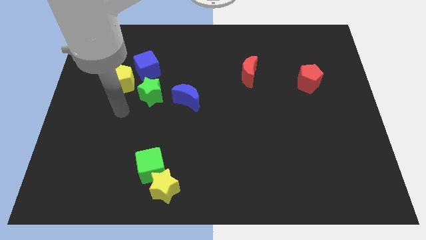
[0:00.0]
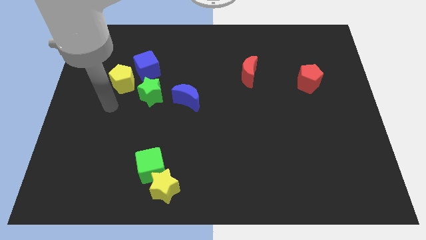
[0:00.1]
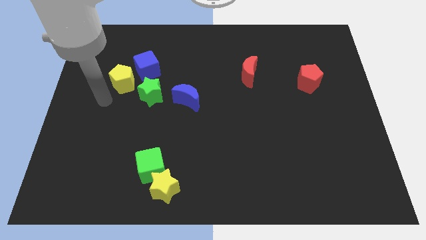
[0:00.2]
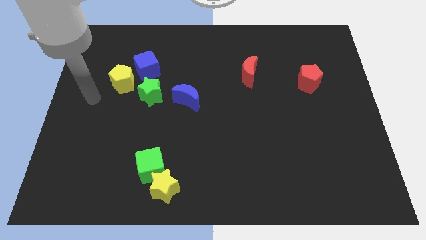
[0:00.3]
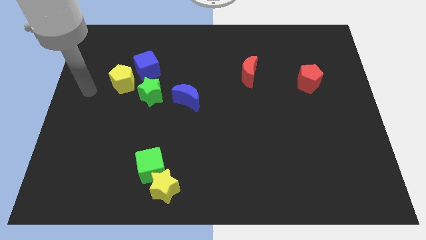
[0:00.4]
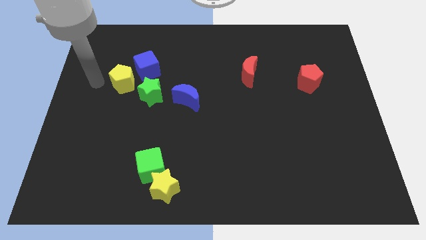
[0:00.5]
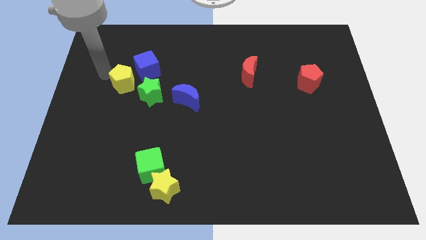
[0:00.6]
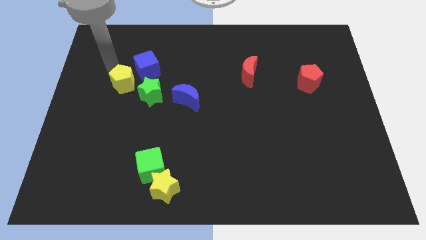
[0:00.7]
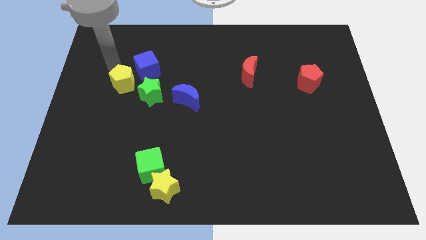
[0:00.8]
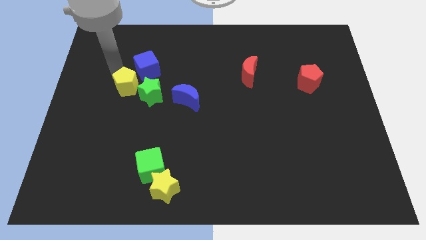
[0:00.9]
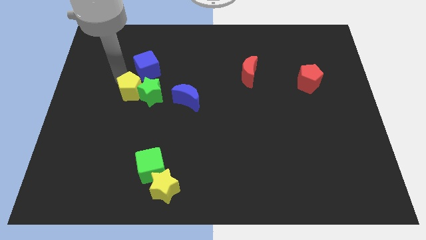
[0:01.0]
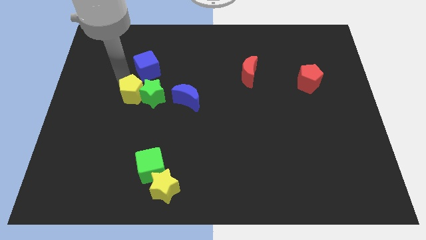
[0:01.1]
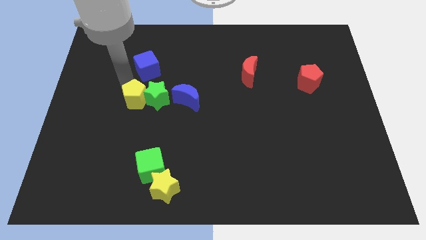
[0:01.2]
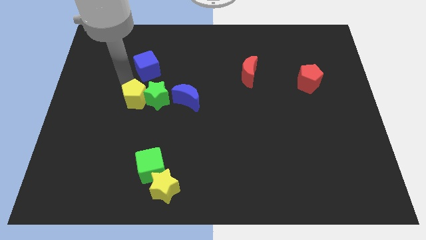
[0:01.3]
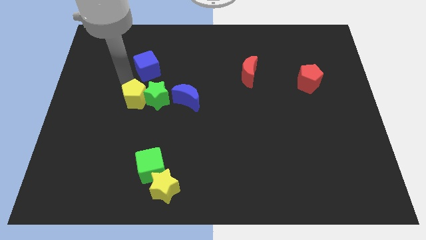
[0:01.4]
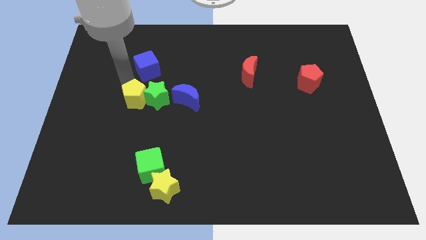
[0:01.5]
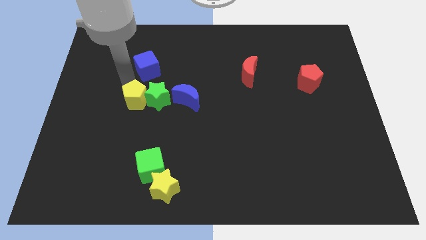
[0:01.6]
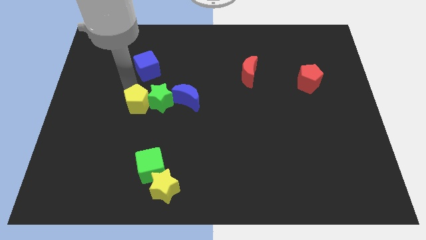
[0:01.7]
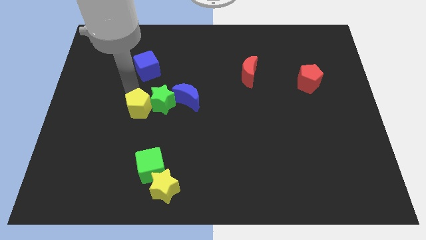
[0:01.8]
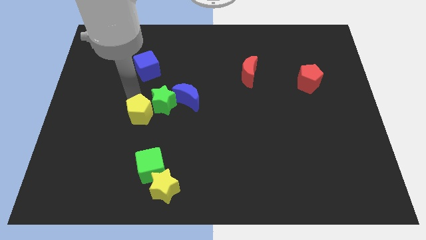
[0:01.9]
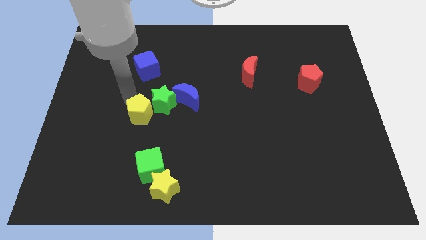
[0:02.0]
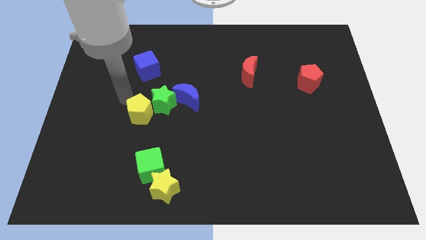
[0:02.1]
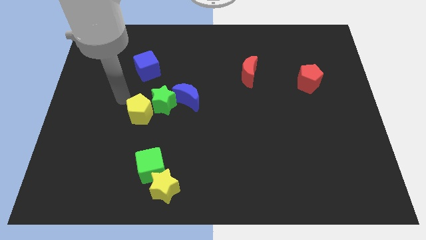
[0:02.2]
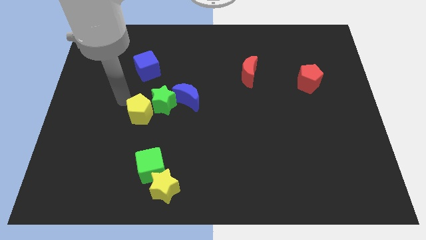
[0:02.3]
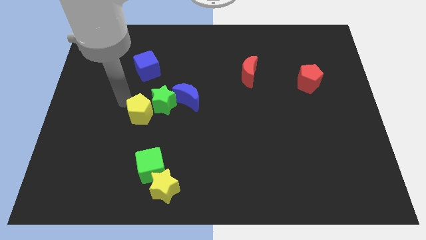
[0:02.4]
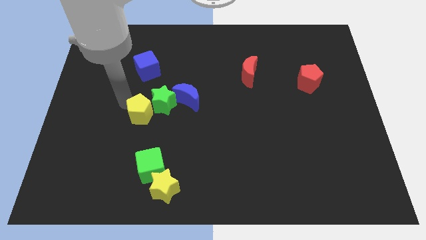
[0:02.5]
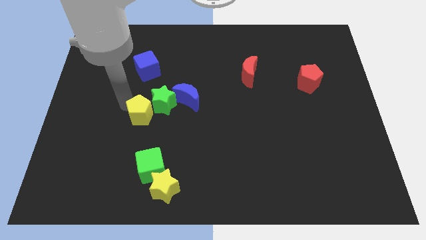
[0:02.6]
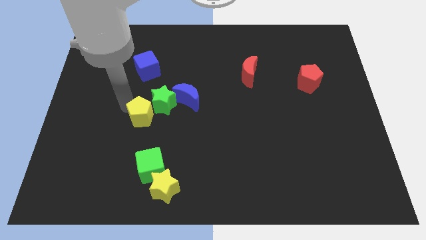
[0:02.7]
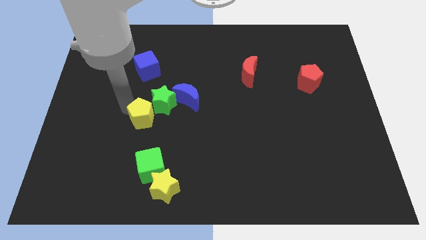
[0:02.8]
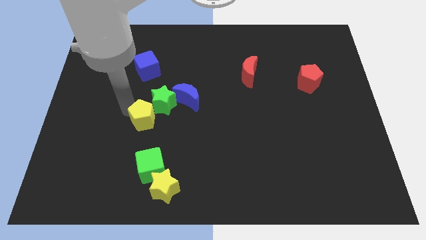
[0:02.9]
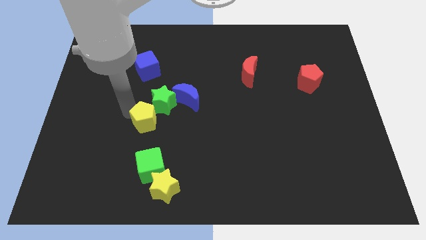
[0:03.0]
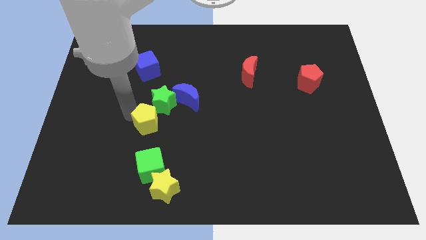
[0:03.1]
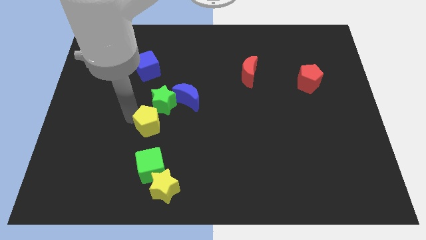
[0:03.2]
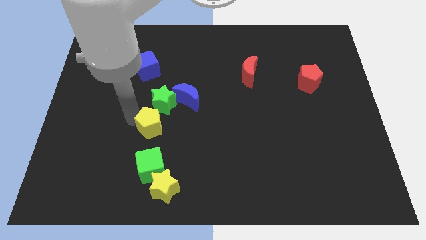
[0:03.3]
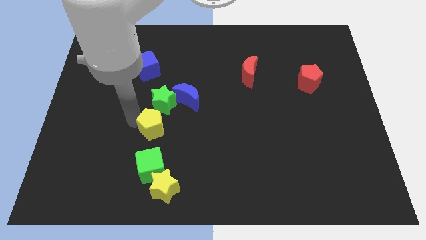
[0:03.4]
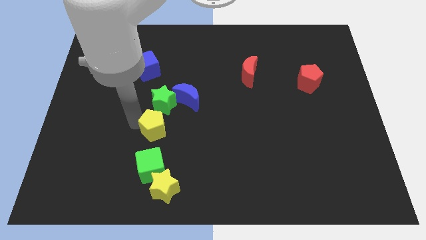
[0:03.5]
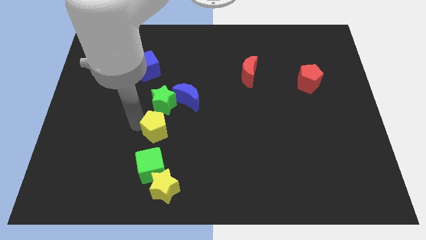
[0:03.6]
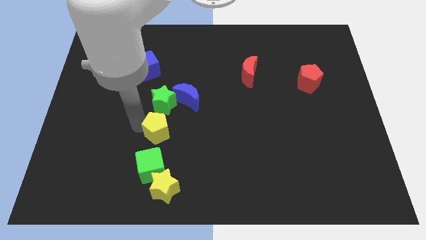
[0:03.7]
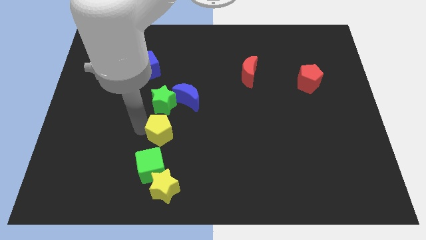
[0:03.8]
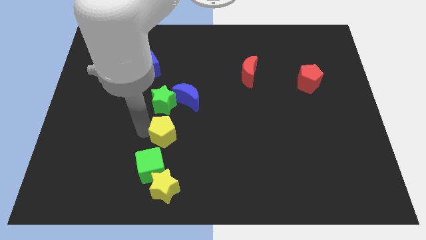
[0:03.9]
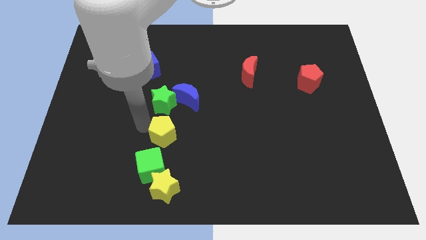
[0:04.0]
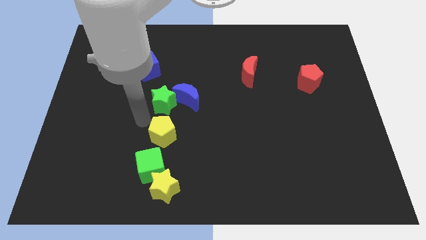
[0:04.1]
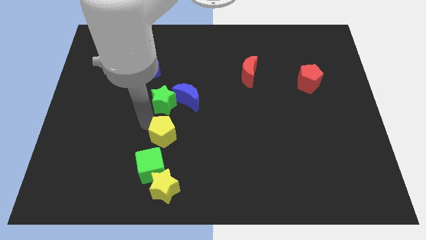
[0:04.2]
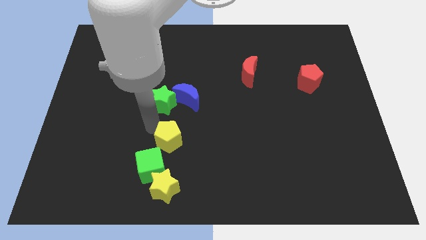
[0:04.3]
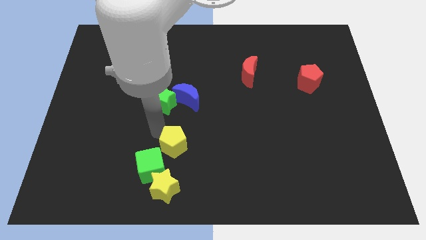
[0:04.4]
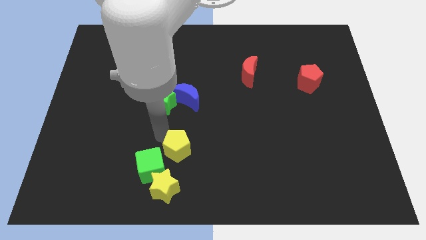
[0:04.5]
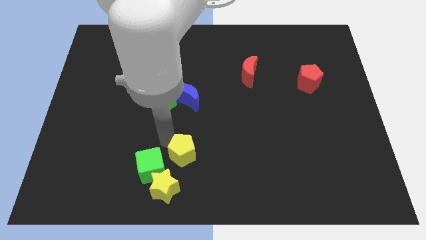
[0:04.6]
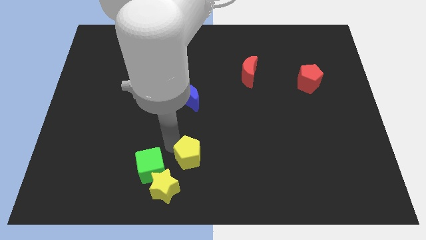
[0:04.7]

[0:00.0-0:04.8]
push the yellow pentagon to the bottom side

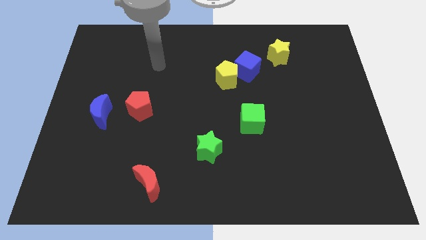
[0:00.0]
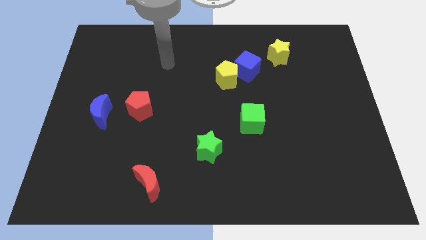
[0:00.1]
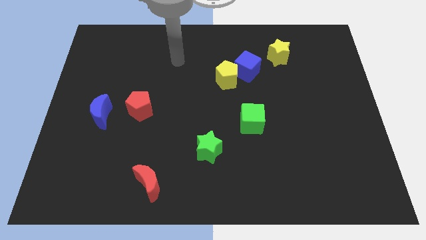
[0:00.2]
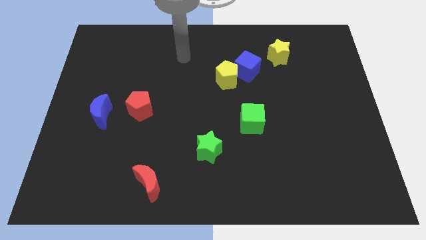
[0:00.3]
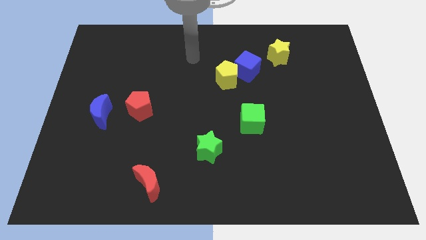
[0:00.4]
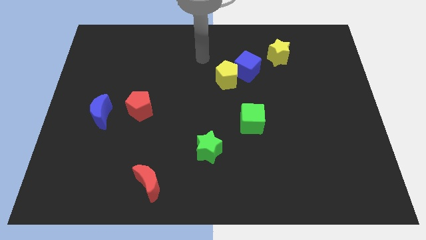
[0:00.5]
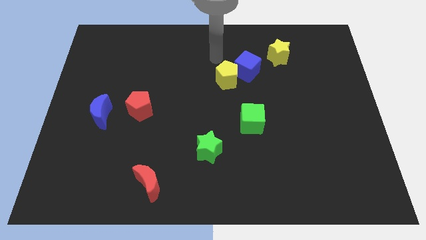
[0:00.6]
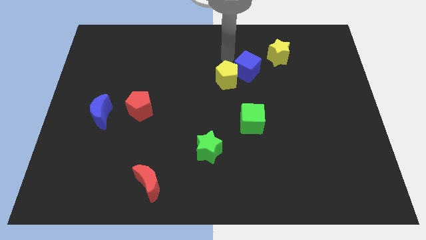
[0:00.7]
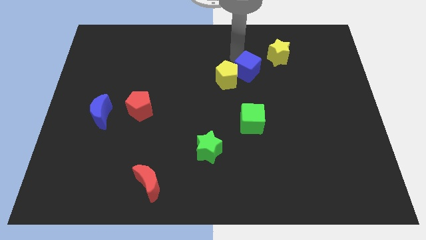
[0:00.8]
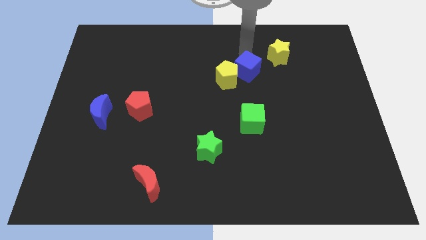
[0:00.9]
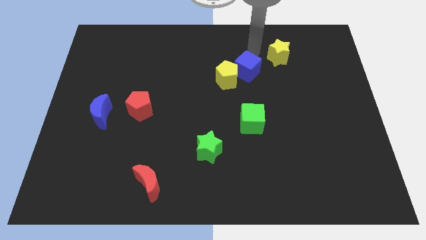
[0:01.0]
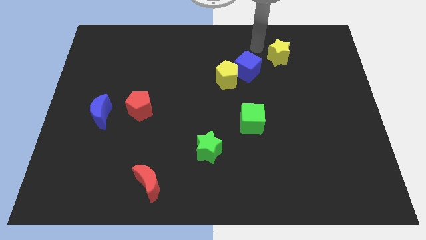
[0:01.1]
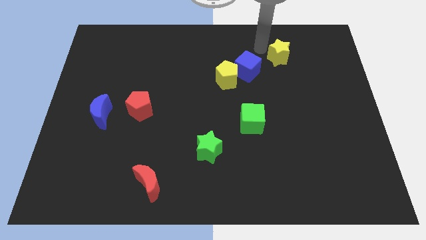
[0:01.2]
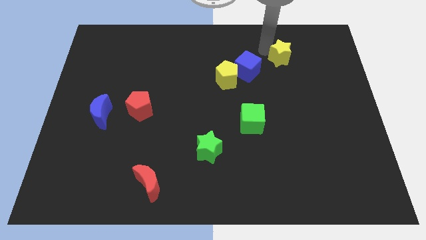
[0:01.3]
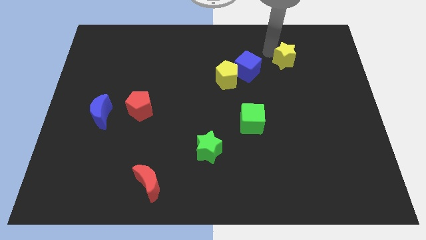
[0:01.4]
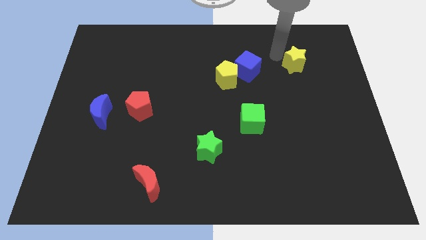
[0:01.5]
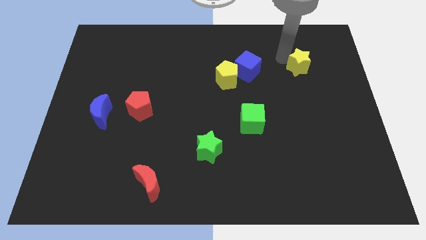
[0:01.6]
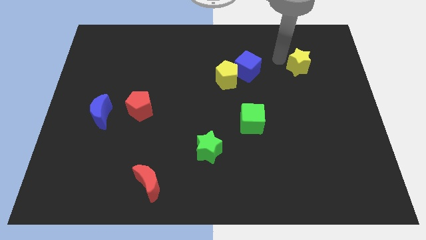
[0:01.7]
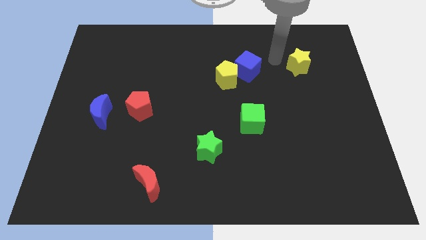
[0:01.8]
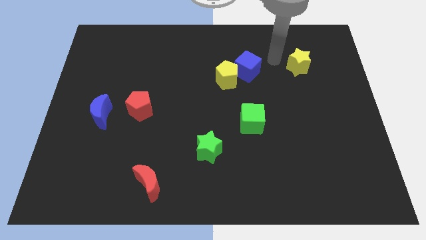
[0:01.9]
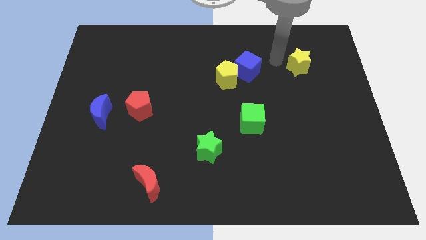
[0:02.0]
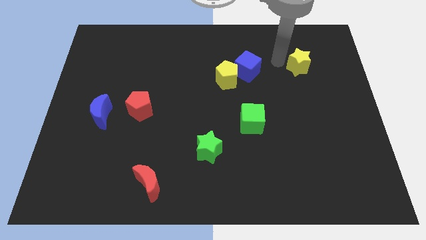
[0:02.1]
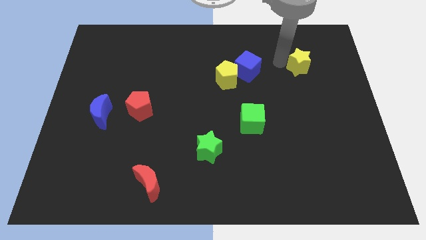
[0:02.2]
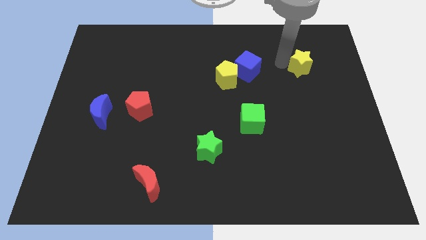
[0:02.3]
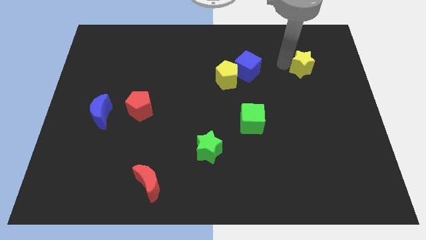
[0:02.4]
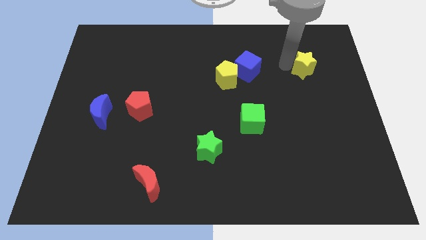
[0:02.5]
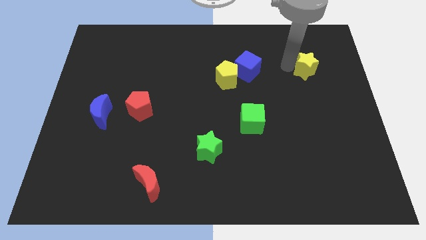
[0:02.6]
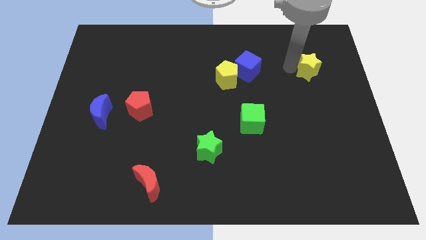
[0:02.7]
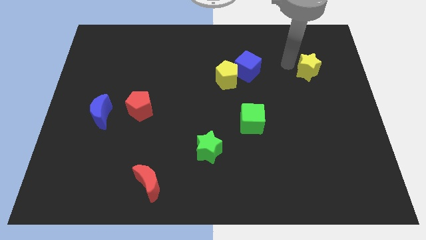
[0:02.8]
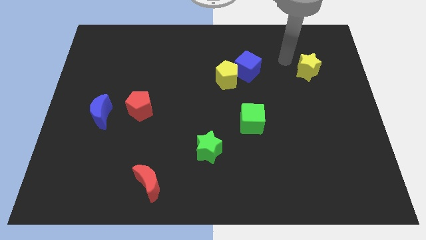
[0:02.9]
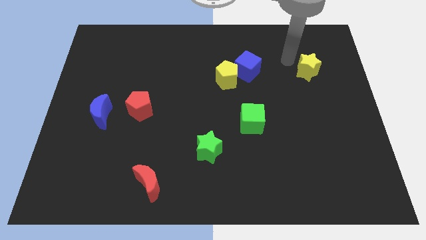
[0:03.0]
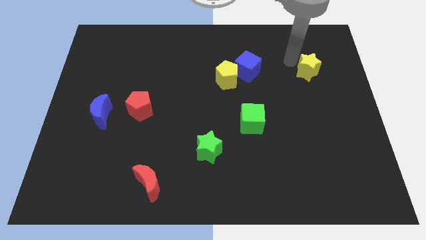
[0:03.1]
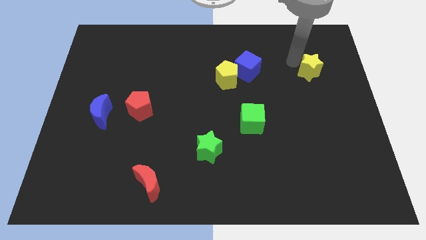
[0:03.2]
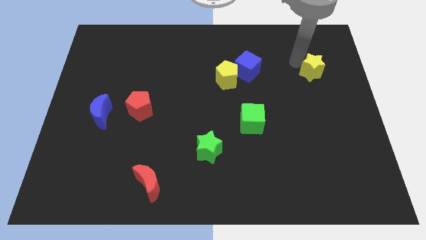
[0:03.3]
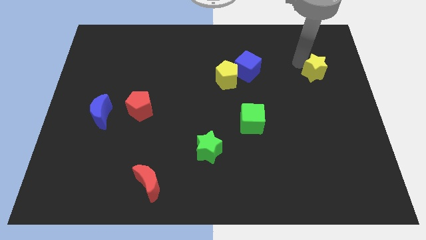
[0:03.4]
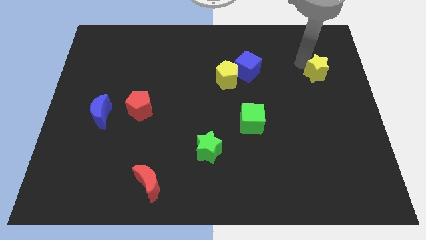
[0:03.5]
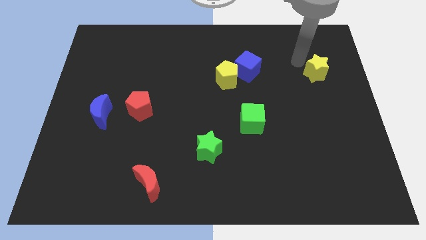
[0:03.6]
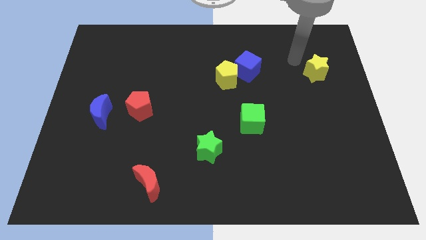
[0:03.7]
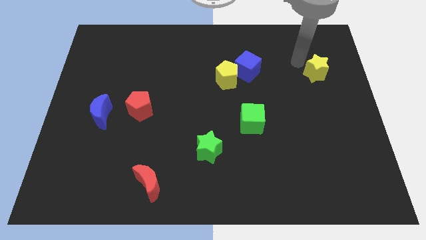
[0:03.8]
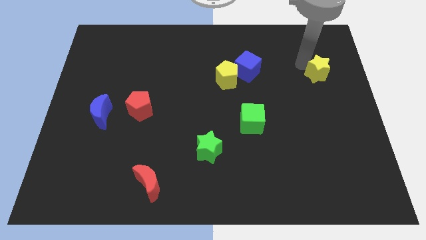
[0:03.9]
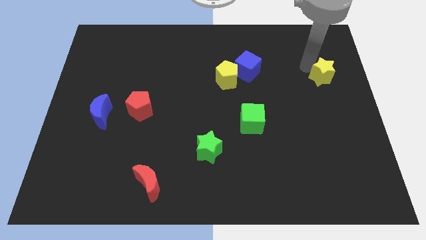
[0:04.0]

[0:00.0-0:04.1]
push the yellow star to the center right
